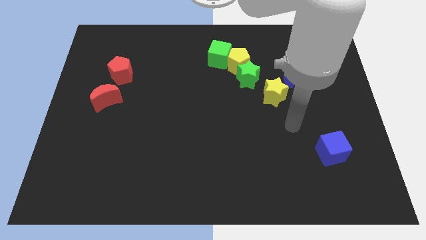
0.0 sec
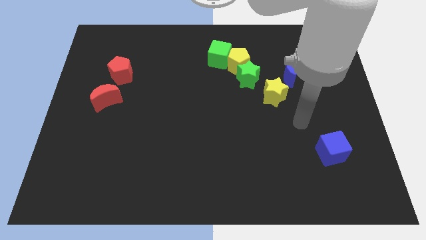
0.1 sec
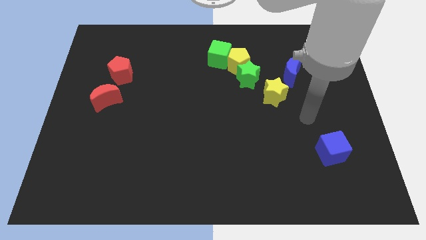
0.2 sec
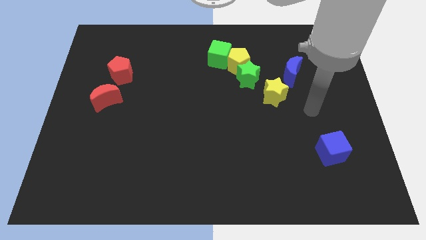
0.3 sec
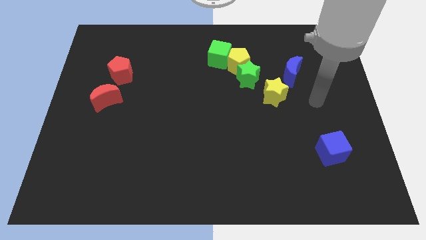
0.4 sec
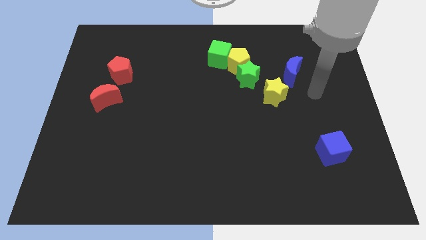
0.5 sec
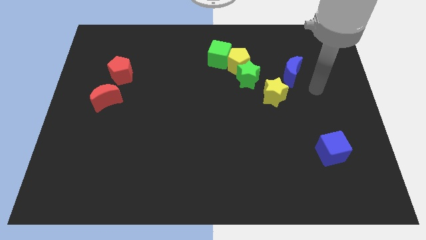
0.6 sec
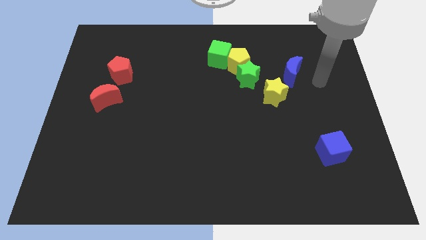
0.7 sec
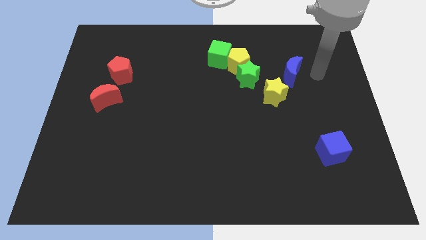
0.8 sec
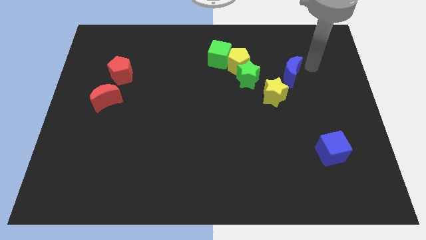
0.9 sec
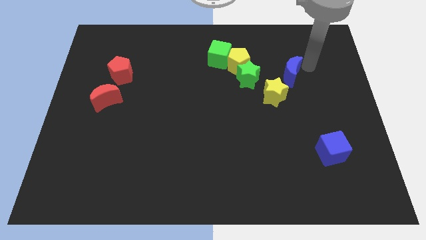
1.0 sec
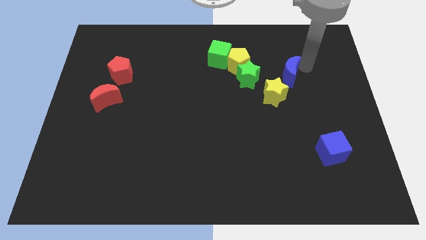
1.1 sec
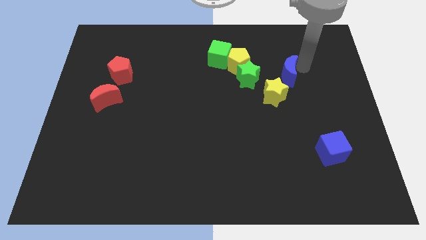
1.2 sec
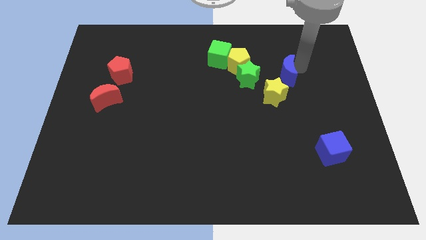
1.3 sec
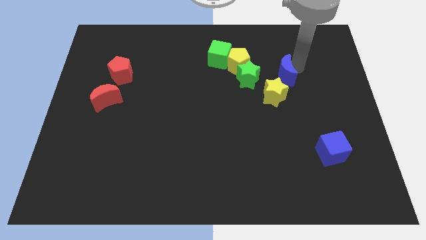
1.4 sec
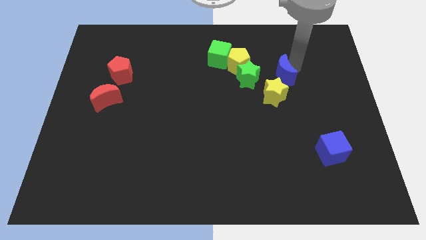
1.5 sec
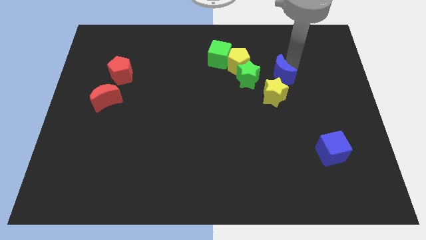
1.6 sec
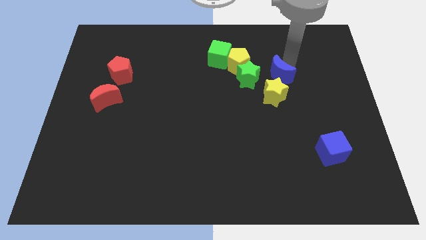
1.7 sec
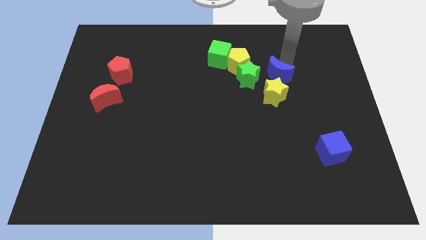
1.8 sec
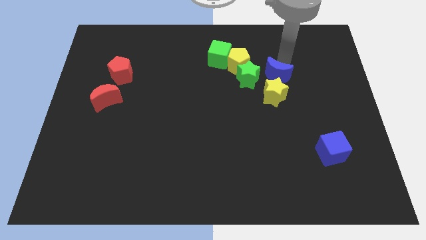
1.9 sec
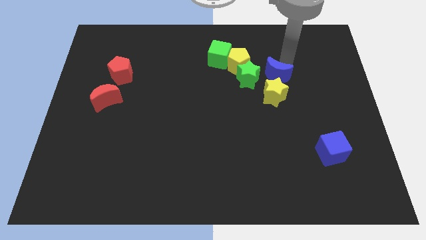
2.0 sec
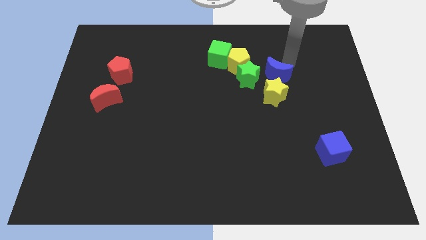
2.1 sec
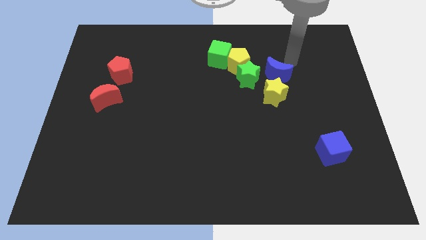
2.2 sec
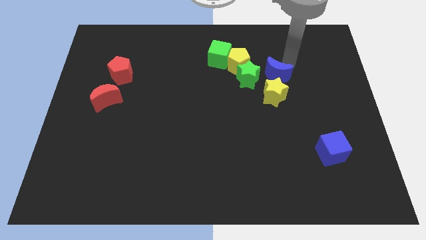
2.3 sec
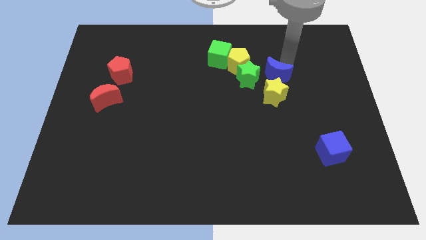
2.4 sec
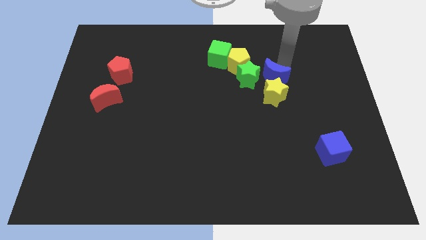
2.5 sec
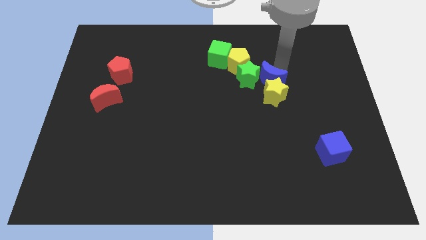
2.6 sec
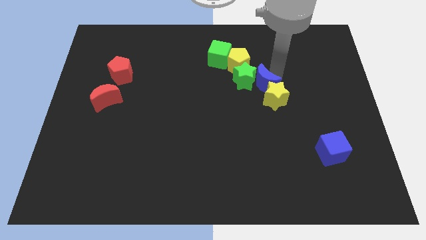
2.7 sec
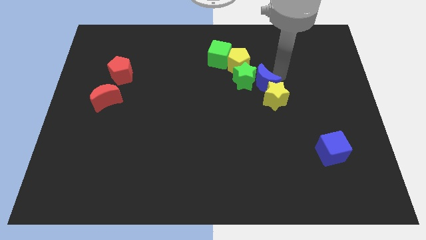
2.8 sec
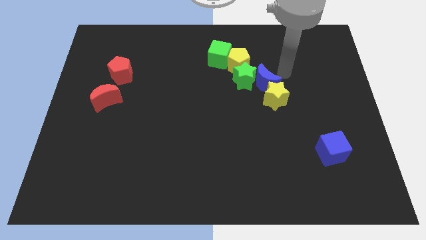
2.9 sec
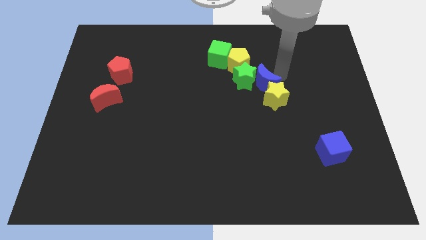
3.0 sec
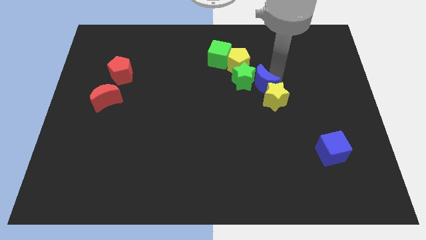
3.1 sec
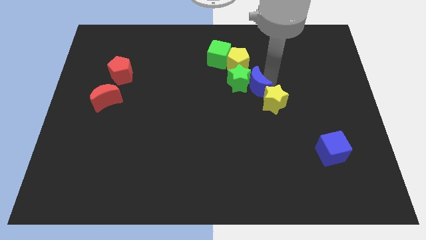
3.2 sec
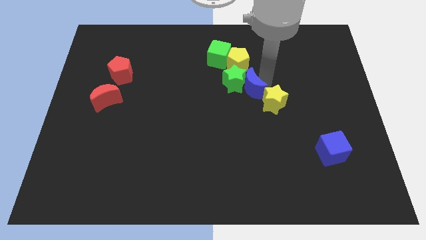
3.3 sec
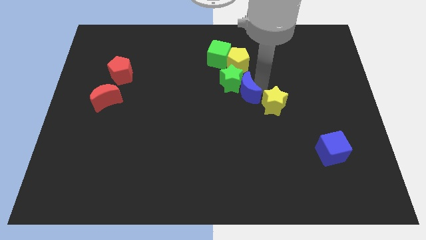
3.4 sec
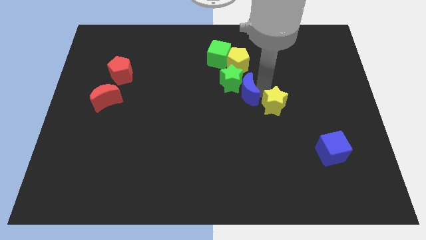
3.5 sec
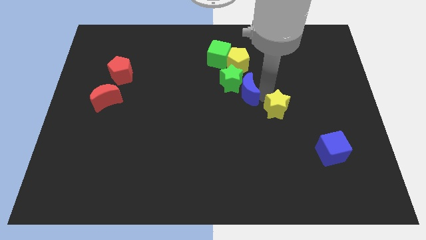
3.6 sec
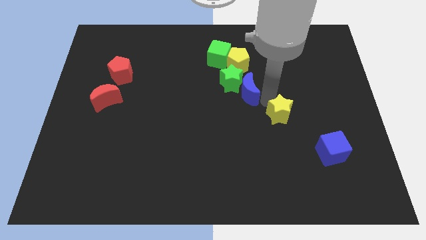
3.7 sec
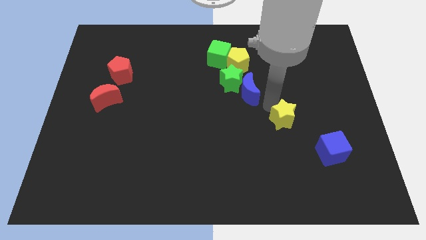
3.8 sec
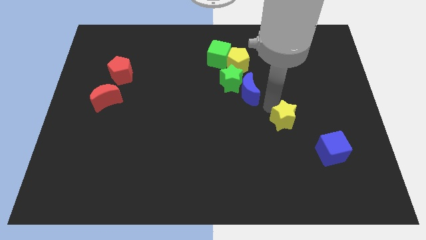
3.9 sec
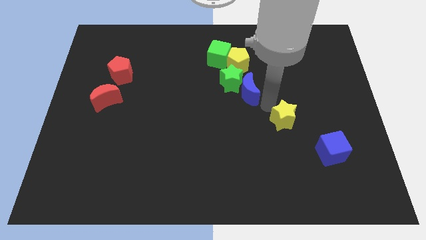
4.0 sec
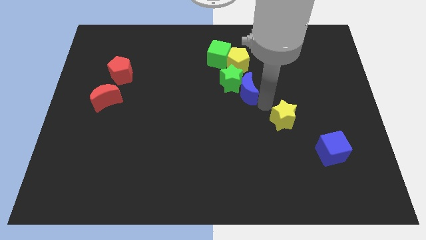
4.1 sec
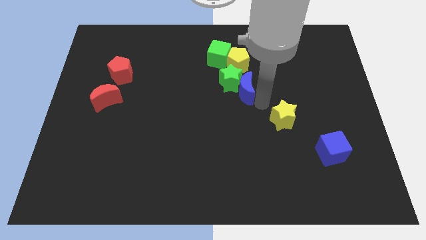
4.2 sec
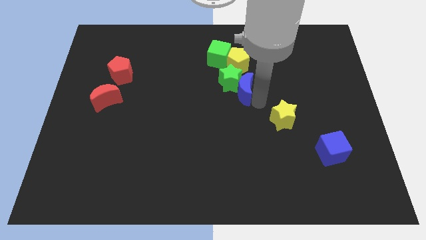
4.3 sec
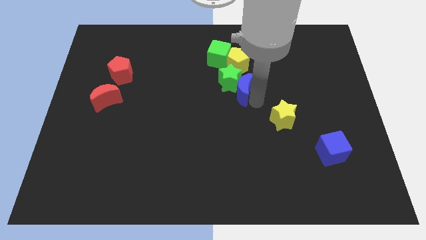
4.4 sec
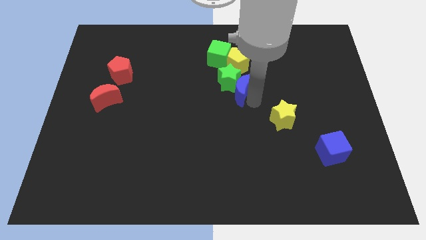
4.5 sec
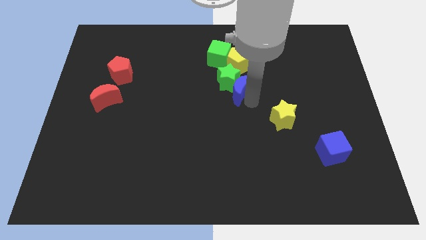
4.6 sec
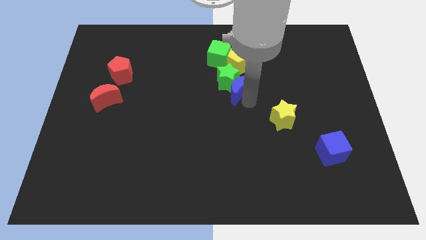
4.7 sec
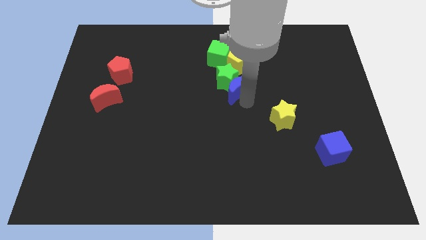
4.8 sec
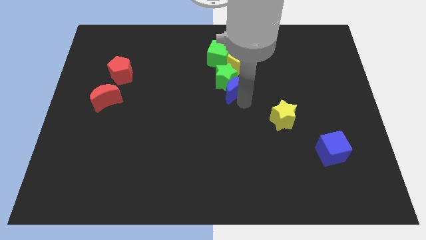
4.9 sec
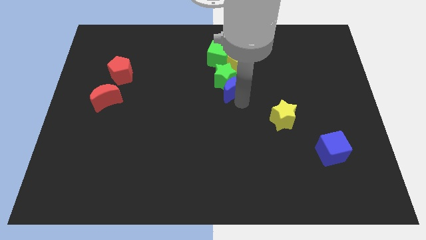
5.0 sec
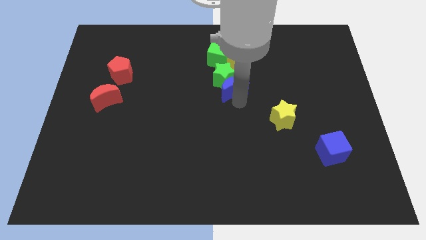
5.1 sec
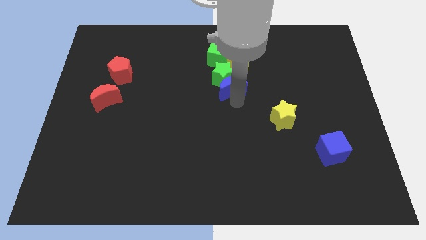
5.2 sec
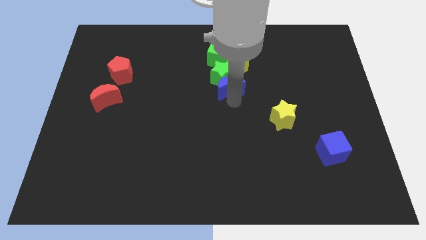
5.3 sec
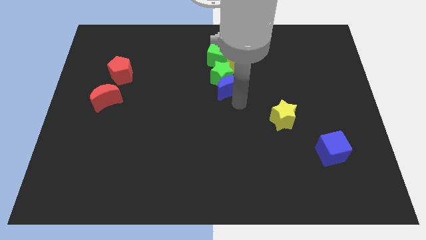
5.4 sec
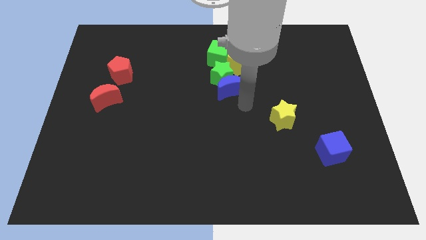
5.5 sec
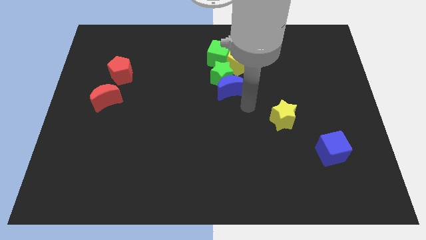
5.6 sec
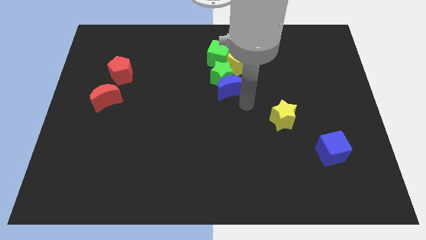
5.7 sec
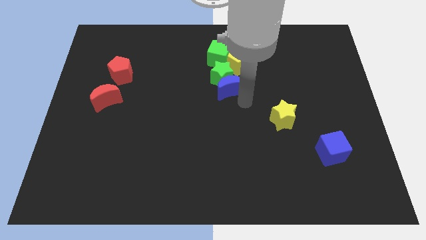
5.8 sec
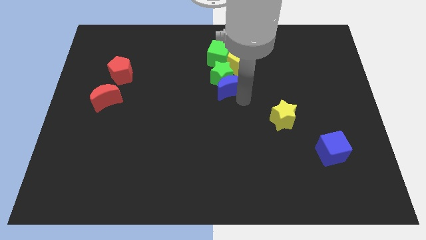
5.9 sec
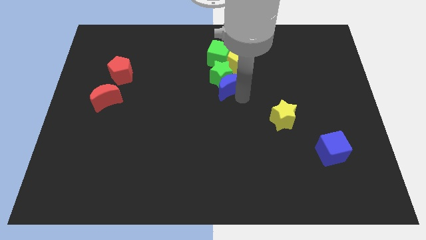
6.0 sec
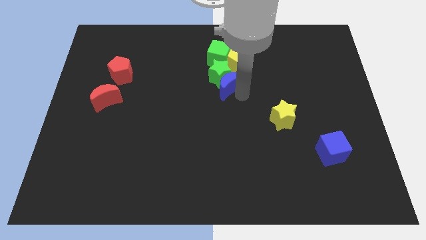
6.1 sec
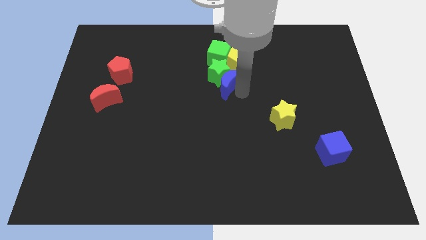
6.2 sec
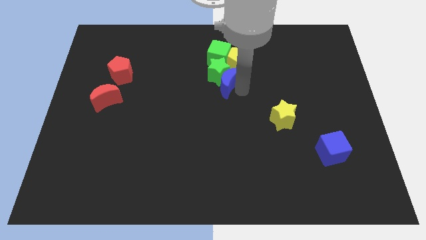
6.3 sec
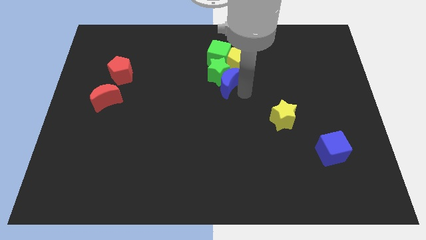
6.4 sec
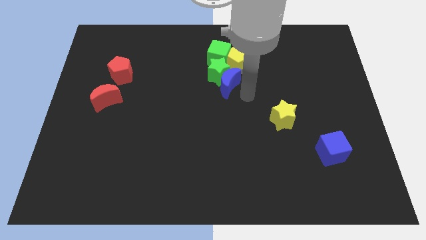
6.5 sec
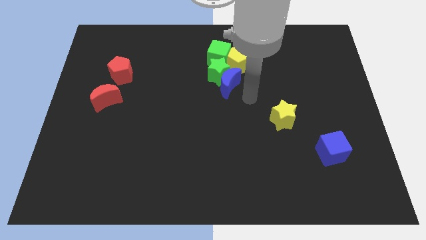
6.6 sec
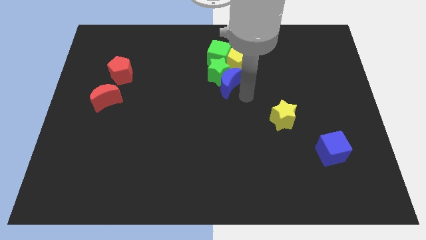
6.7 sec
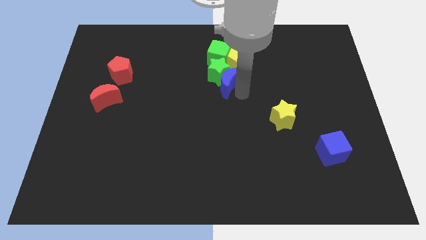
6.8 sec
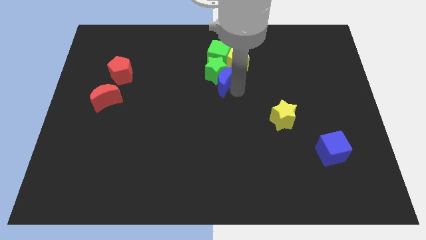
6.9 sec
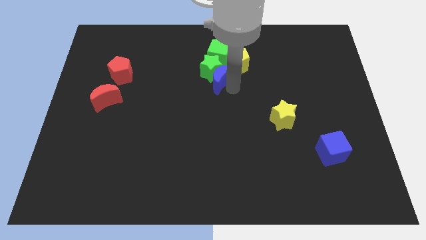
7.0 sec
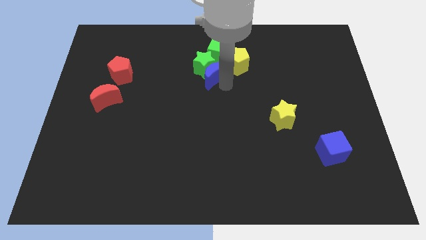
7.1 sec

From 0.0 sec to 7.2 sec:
push the blue moon to the left side of the yellow pentagon

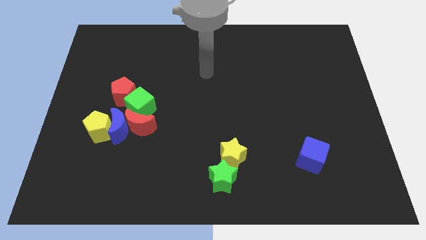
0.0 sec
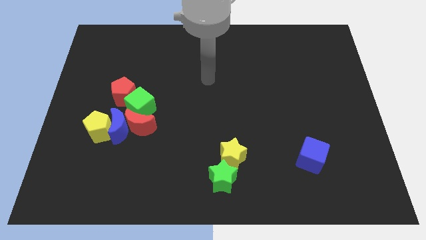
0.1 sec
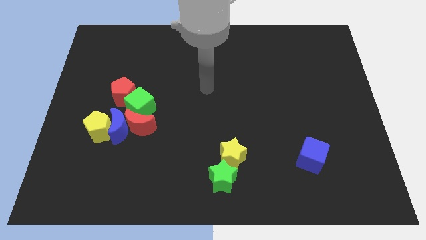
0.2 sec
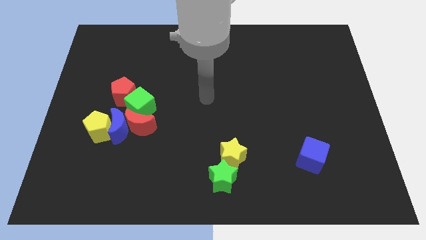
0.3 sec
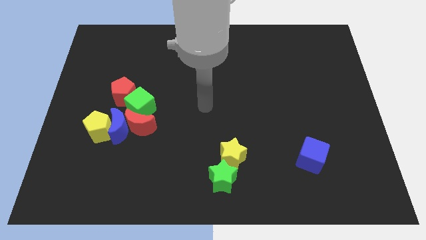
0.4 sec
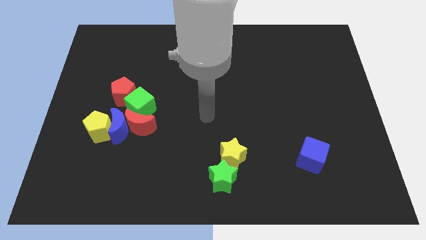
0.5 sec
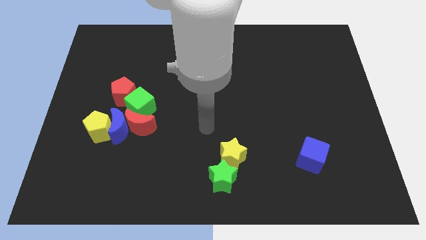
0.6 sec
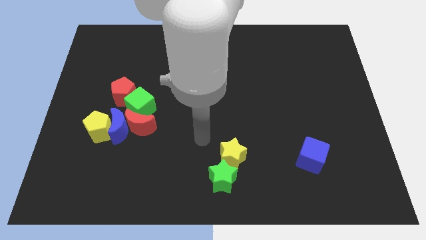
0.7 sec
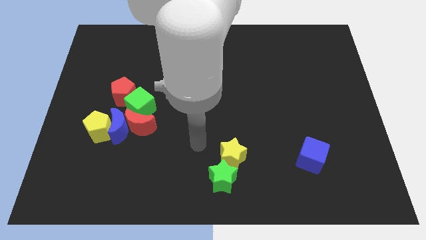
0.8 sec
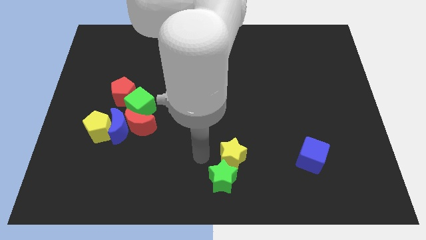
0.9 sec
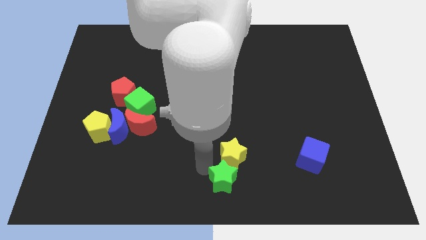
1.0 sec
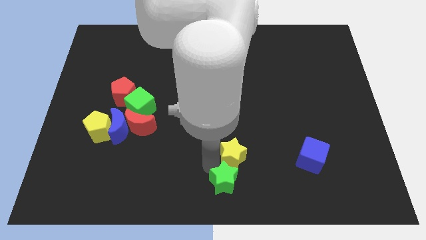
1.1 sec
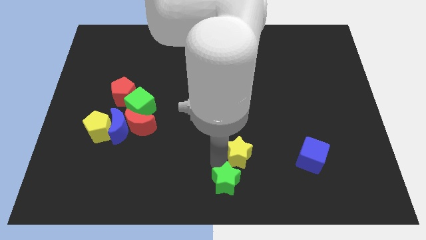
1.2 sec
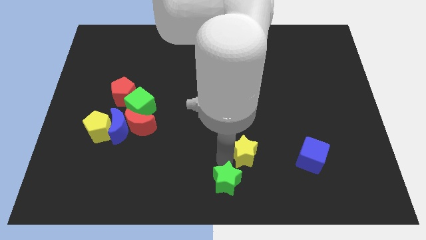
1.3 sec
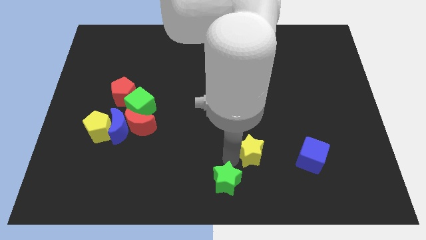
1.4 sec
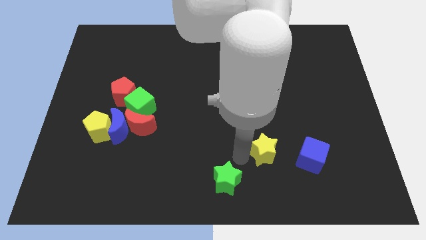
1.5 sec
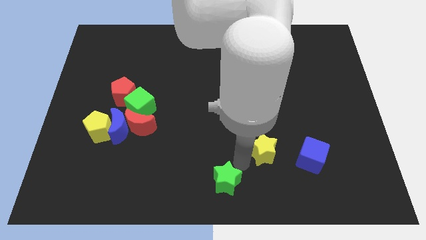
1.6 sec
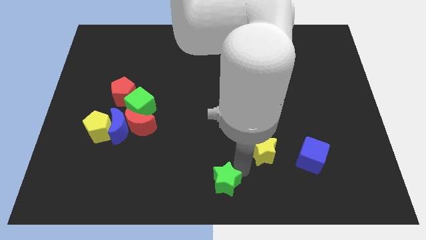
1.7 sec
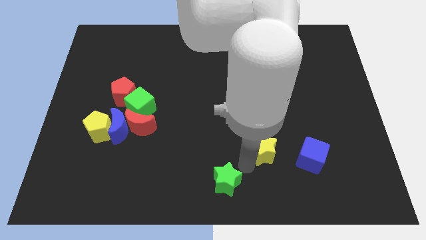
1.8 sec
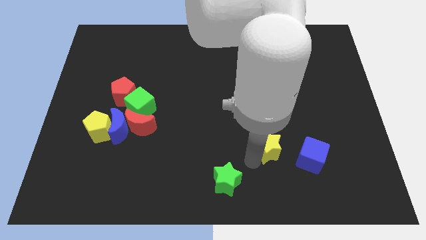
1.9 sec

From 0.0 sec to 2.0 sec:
push the yellow star to the top left side of the blue cube
